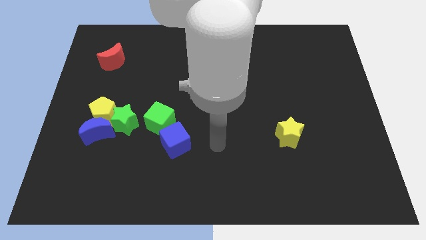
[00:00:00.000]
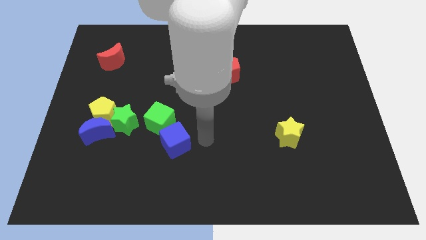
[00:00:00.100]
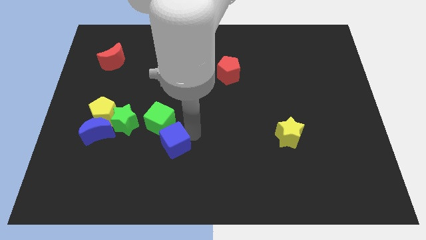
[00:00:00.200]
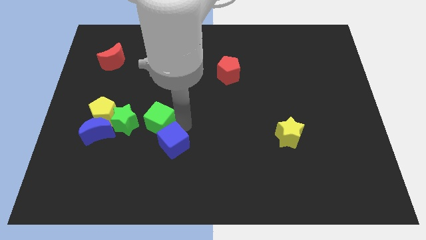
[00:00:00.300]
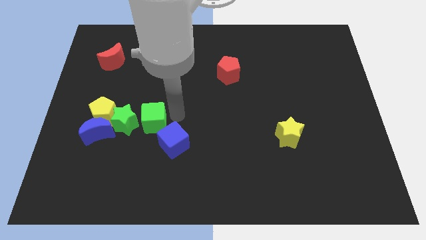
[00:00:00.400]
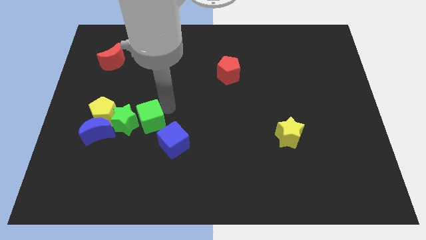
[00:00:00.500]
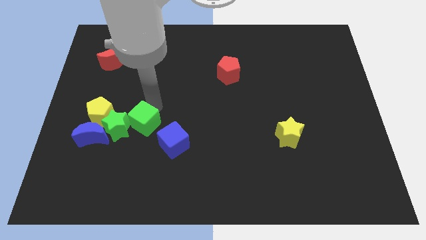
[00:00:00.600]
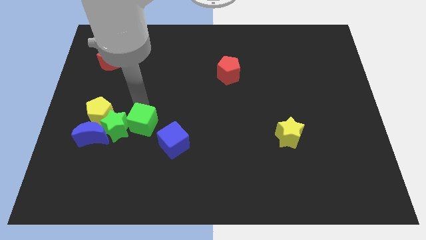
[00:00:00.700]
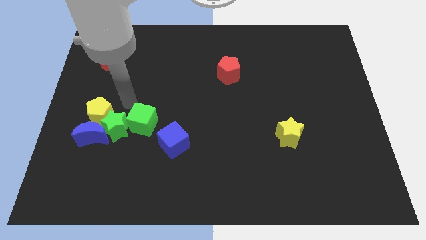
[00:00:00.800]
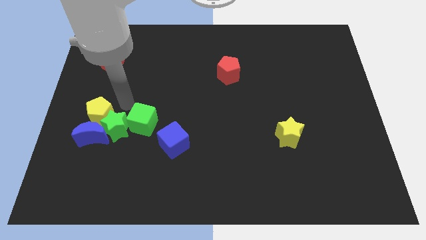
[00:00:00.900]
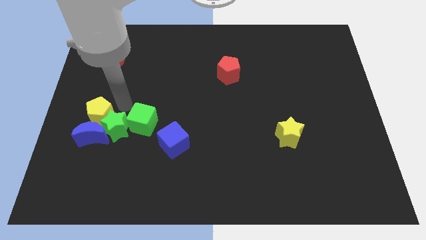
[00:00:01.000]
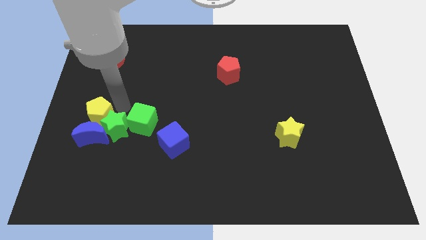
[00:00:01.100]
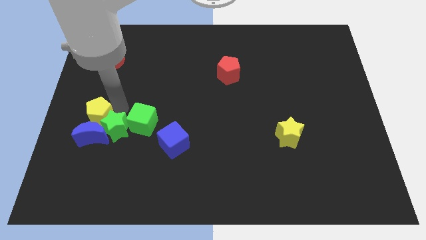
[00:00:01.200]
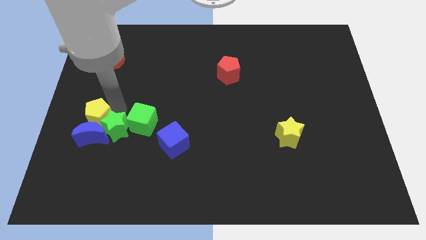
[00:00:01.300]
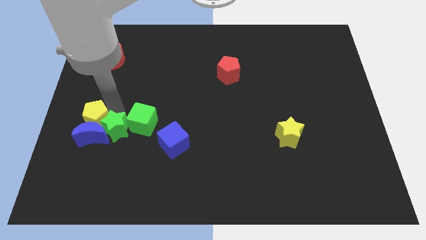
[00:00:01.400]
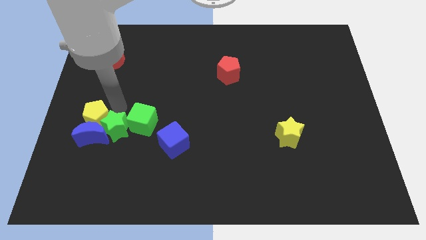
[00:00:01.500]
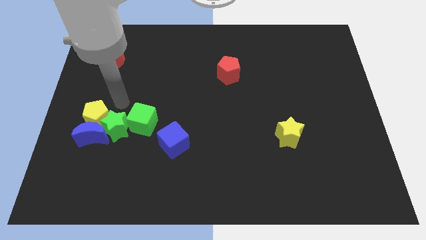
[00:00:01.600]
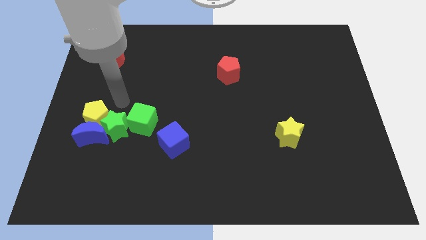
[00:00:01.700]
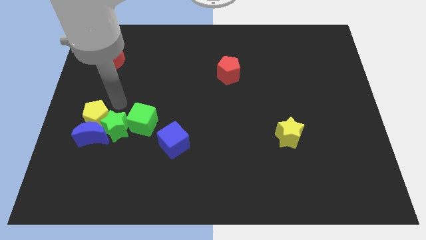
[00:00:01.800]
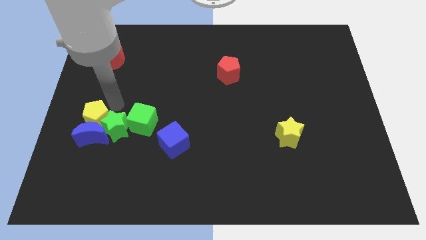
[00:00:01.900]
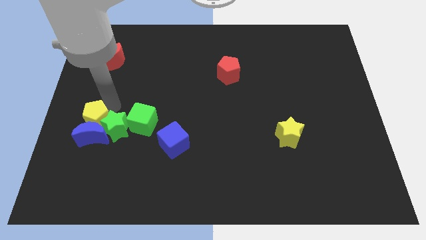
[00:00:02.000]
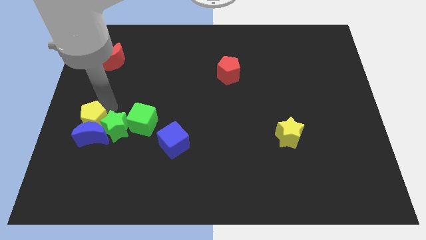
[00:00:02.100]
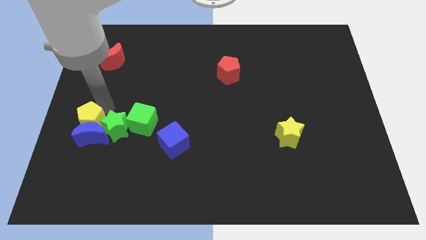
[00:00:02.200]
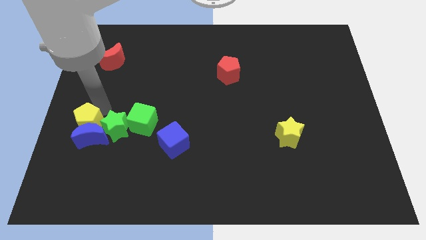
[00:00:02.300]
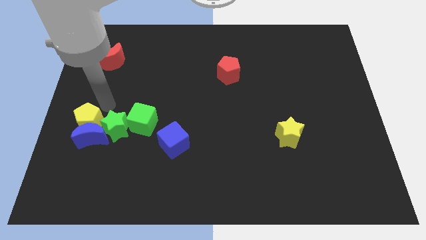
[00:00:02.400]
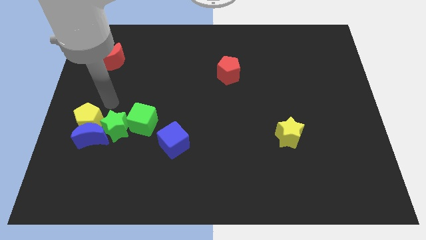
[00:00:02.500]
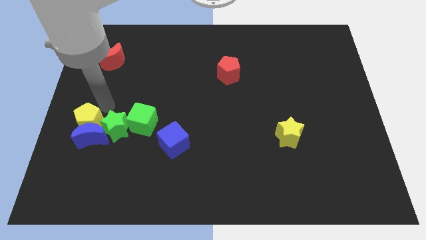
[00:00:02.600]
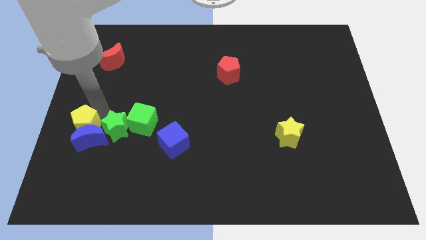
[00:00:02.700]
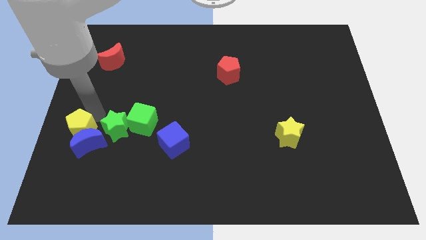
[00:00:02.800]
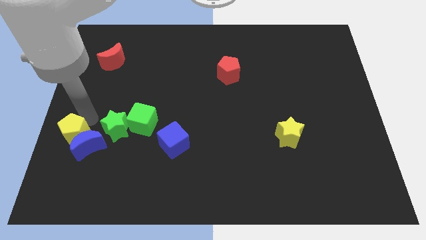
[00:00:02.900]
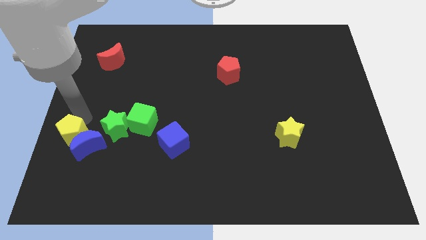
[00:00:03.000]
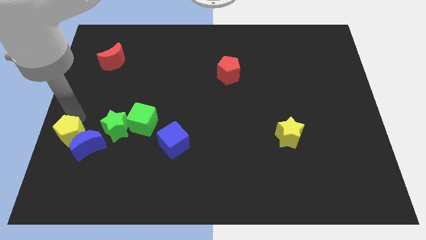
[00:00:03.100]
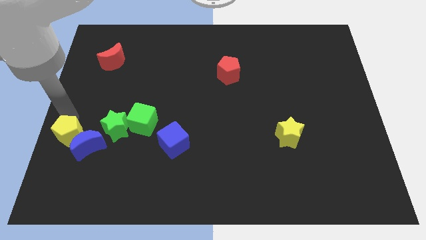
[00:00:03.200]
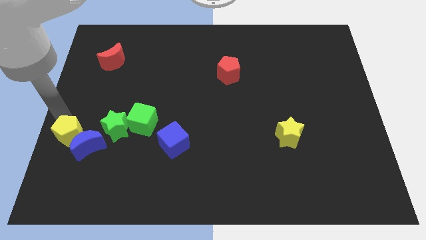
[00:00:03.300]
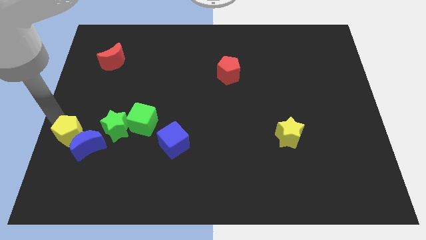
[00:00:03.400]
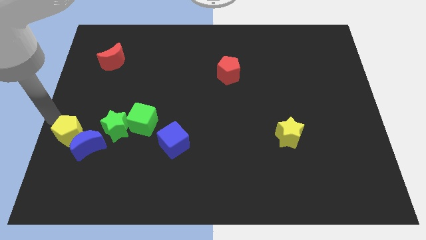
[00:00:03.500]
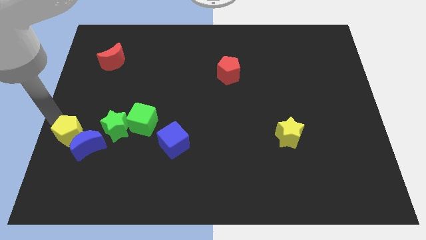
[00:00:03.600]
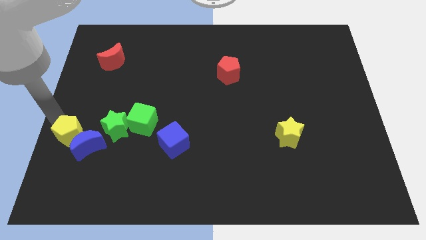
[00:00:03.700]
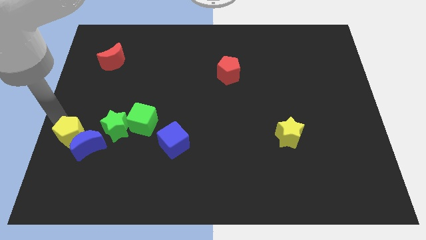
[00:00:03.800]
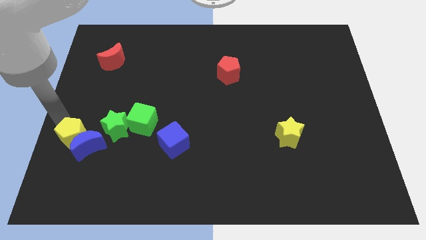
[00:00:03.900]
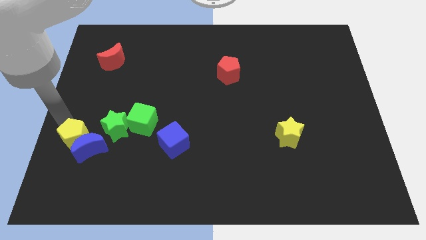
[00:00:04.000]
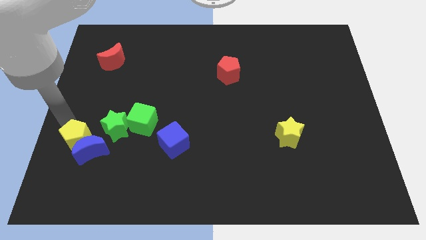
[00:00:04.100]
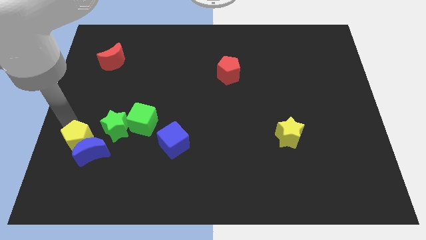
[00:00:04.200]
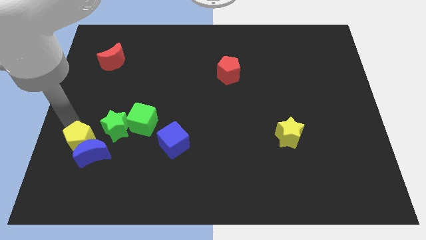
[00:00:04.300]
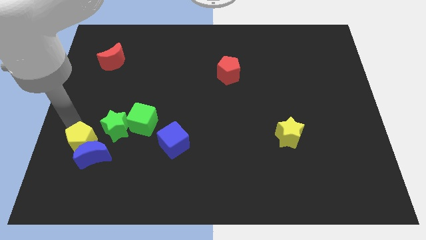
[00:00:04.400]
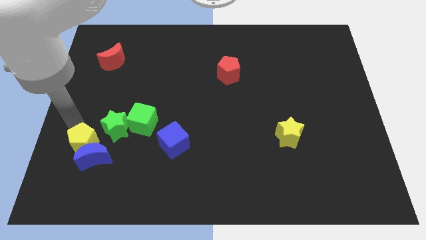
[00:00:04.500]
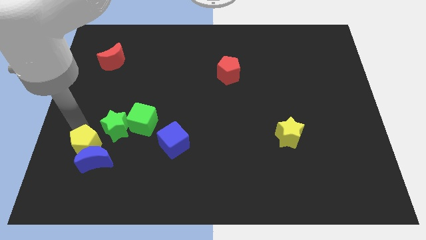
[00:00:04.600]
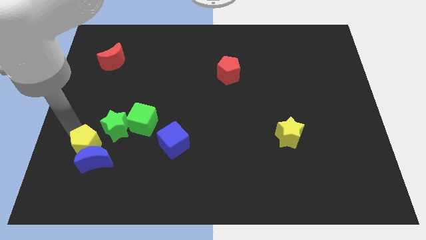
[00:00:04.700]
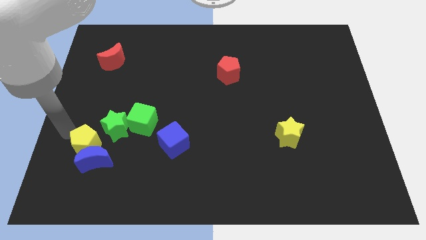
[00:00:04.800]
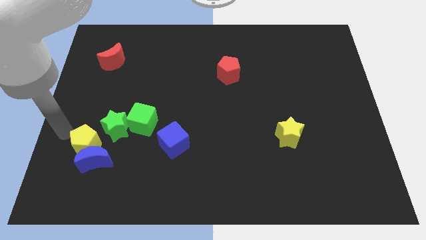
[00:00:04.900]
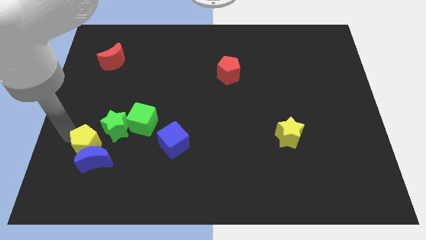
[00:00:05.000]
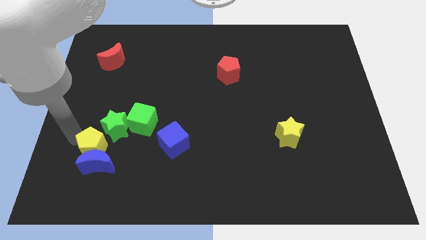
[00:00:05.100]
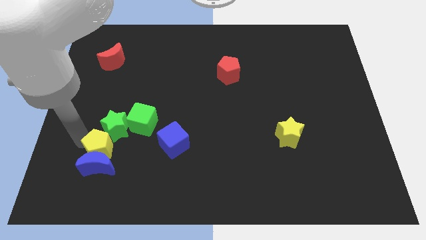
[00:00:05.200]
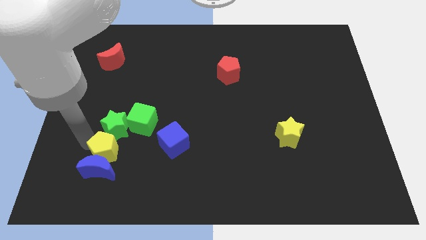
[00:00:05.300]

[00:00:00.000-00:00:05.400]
slide the yellow pentagon slightly downwards and right diagonally

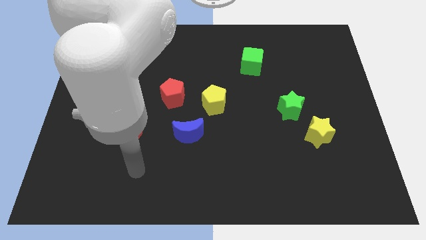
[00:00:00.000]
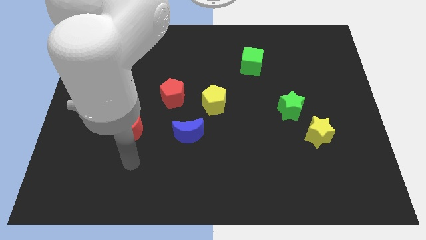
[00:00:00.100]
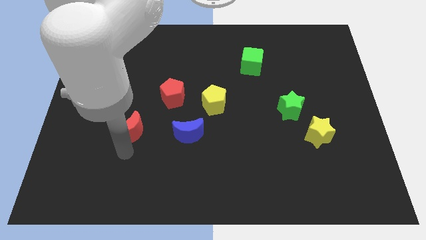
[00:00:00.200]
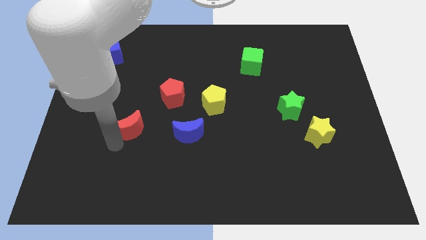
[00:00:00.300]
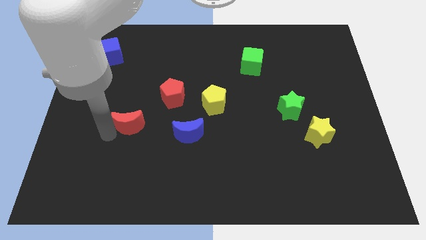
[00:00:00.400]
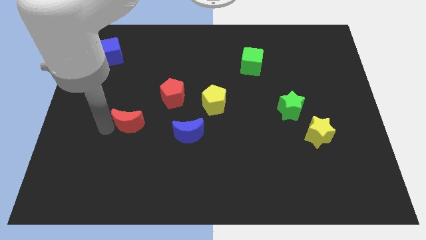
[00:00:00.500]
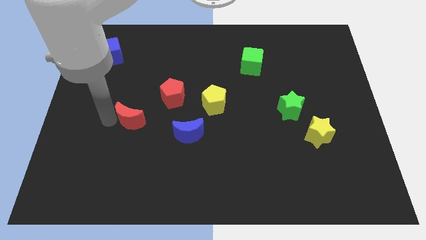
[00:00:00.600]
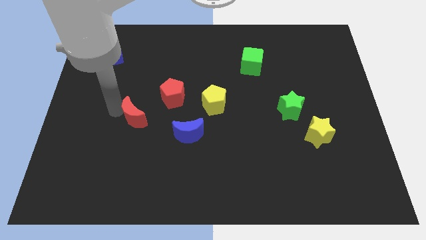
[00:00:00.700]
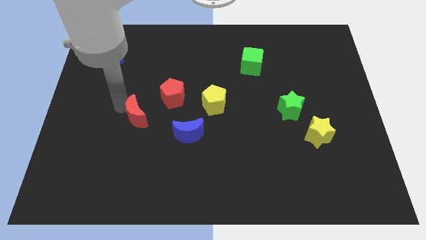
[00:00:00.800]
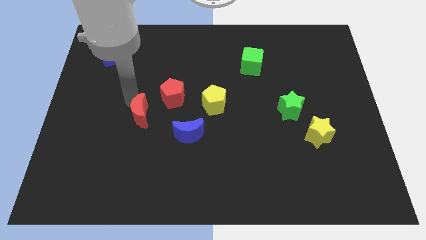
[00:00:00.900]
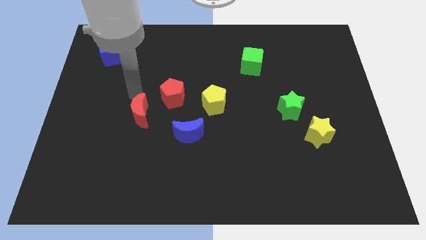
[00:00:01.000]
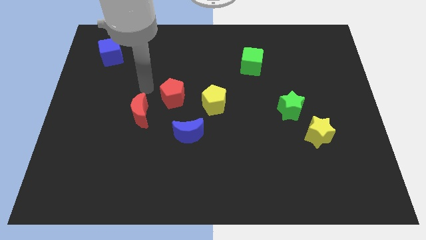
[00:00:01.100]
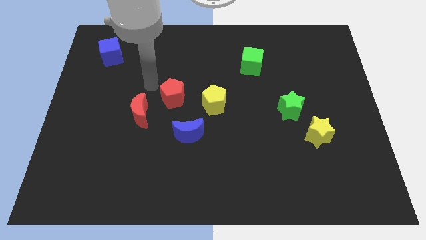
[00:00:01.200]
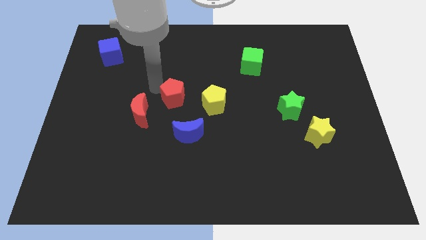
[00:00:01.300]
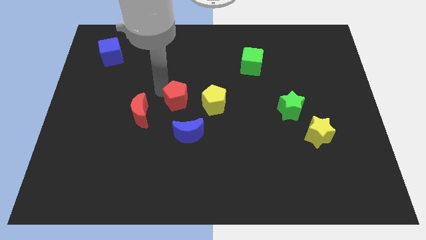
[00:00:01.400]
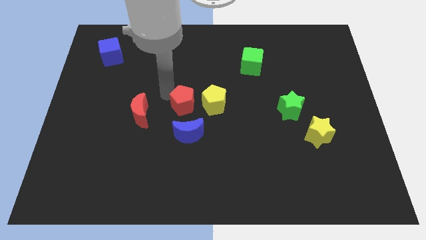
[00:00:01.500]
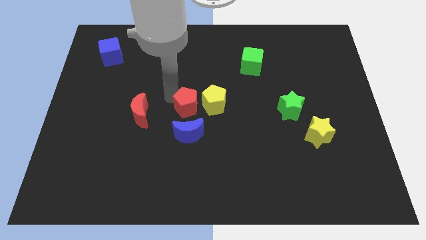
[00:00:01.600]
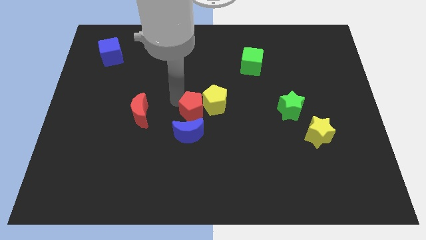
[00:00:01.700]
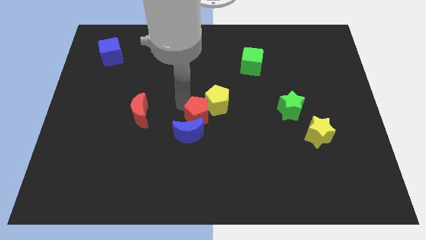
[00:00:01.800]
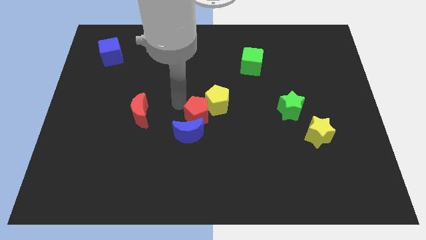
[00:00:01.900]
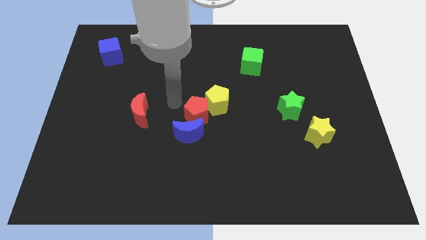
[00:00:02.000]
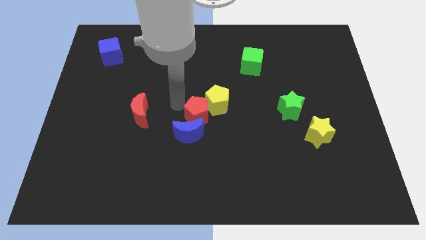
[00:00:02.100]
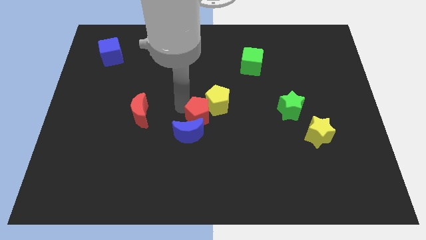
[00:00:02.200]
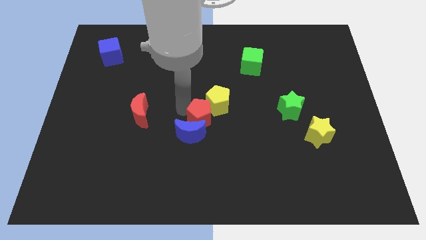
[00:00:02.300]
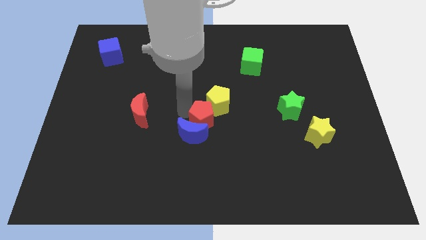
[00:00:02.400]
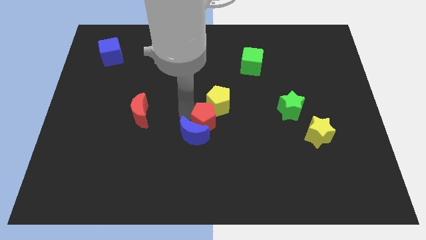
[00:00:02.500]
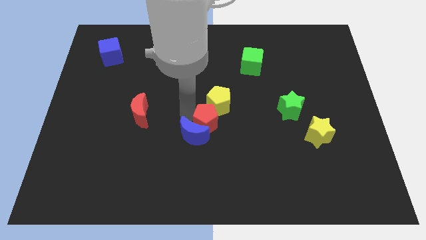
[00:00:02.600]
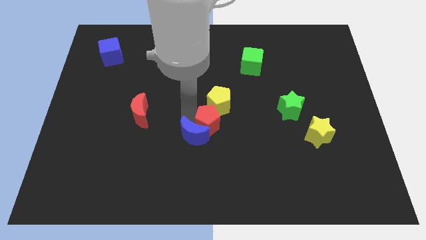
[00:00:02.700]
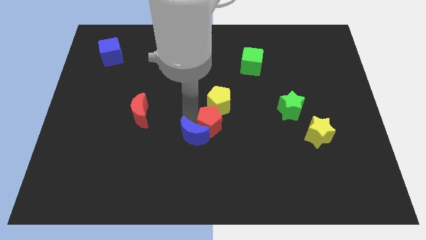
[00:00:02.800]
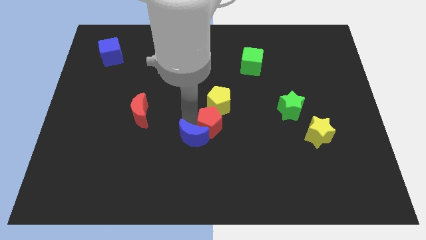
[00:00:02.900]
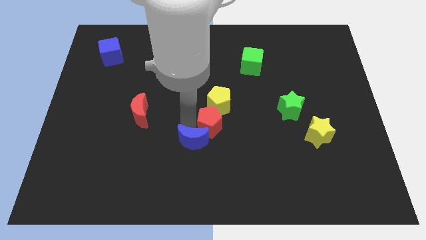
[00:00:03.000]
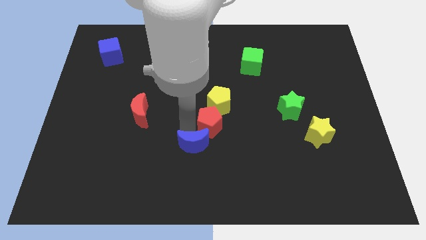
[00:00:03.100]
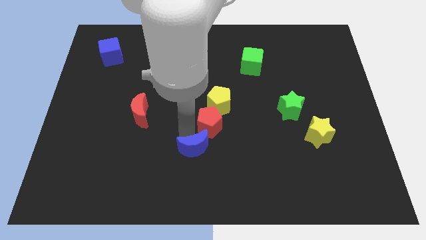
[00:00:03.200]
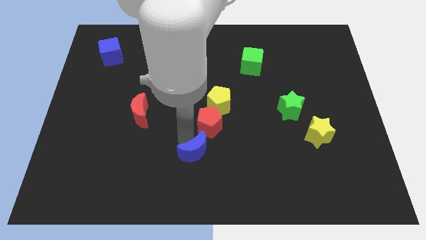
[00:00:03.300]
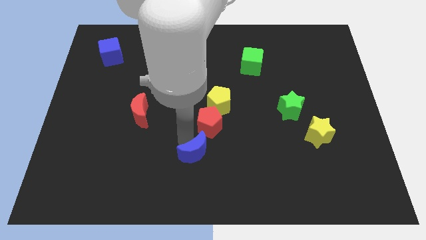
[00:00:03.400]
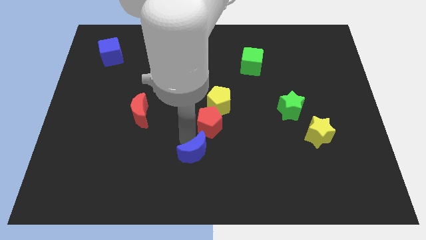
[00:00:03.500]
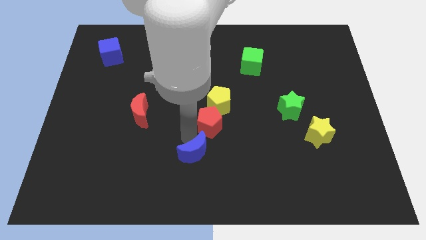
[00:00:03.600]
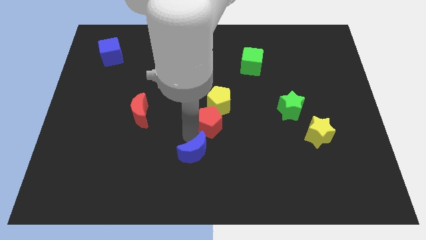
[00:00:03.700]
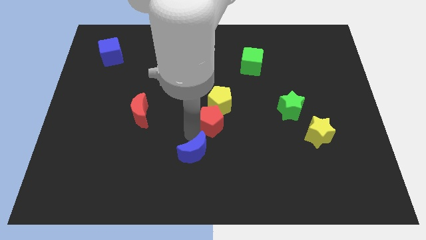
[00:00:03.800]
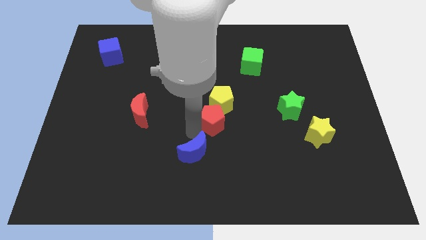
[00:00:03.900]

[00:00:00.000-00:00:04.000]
slightly slide the red pentagon right
